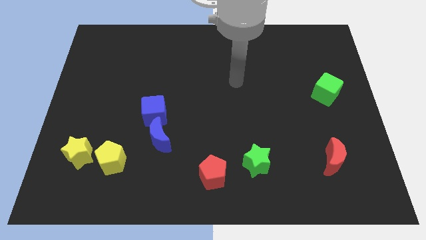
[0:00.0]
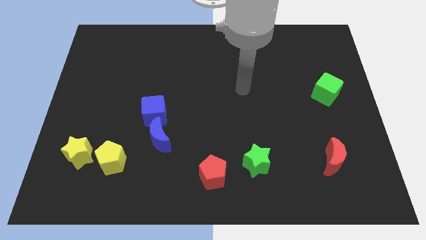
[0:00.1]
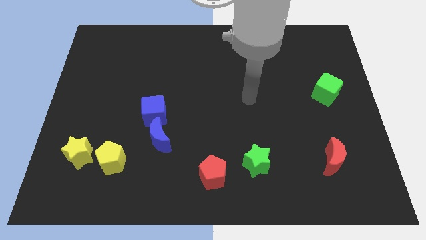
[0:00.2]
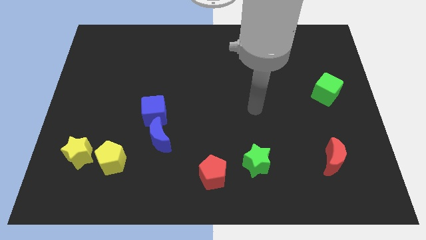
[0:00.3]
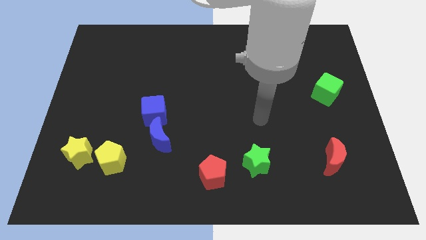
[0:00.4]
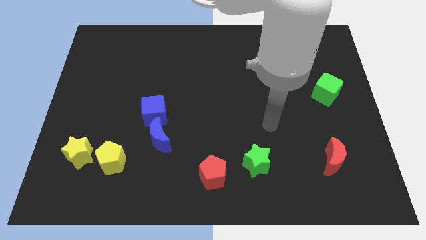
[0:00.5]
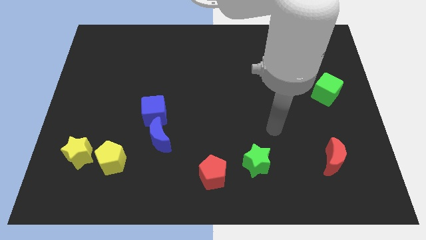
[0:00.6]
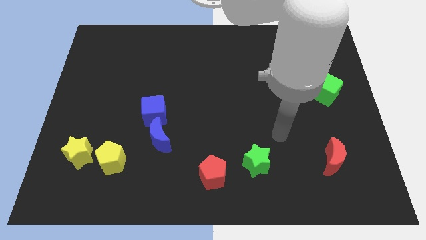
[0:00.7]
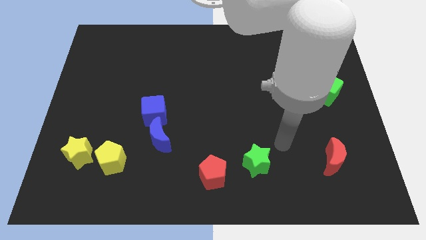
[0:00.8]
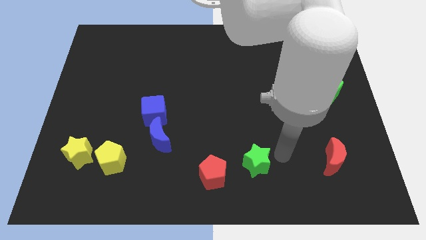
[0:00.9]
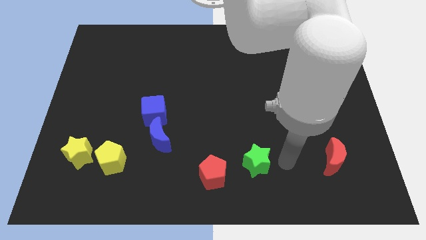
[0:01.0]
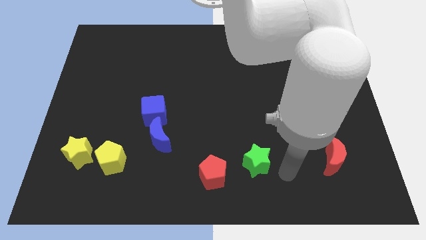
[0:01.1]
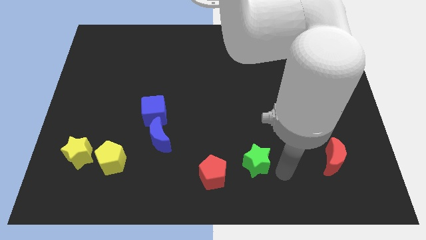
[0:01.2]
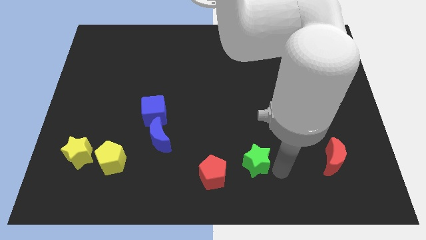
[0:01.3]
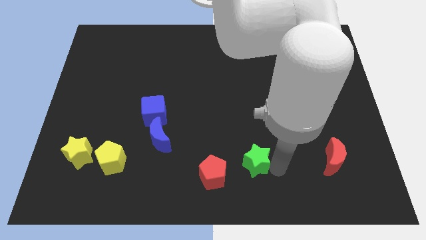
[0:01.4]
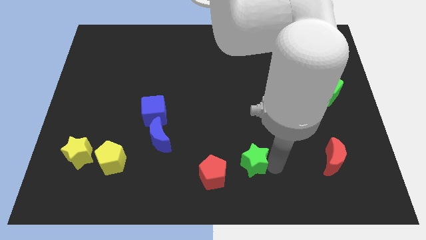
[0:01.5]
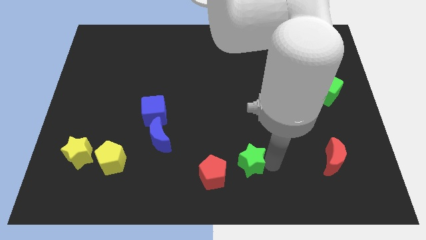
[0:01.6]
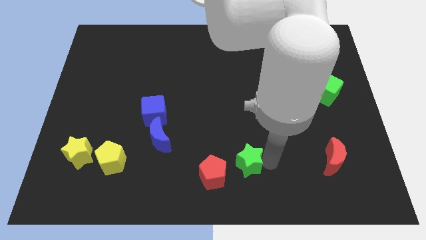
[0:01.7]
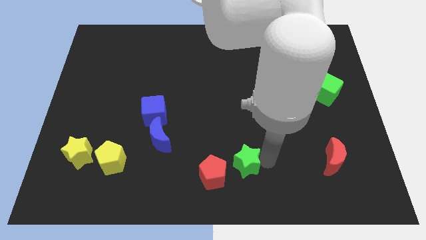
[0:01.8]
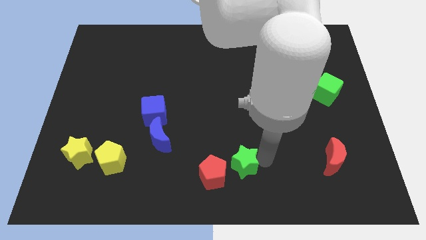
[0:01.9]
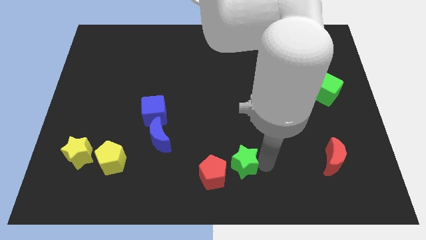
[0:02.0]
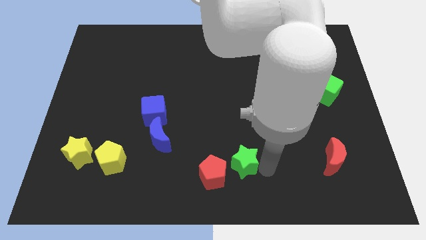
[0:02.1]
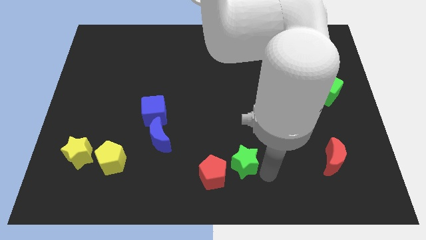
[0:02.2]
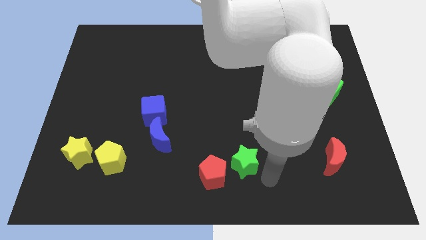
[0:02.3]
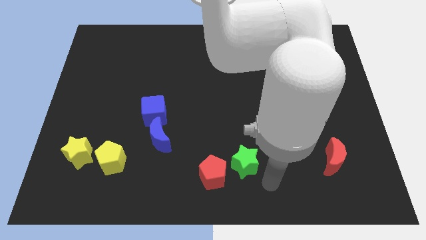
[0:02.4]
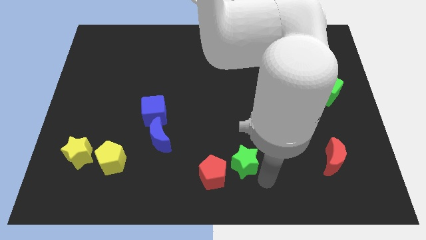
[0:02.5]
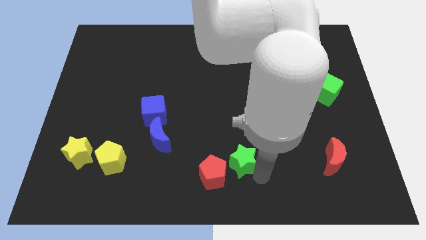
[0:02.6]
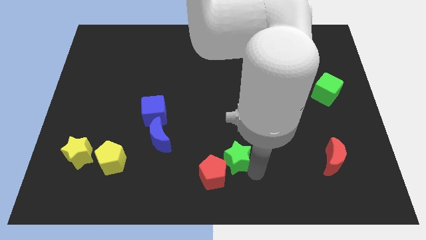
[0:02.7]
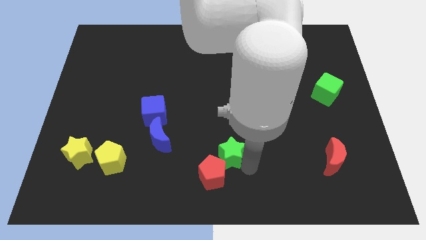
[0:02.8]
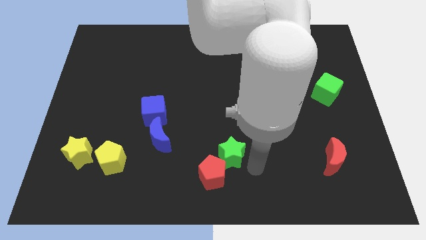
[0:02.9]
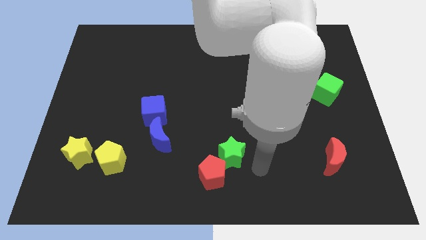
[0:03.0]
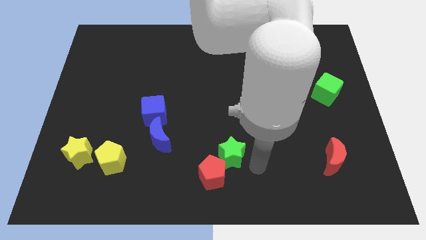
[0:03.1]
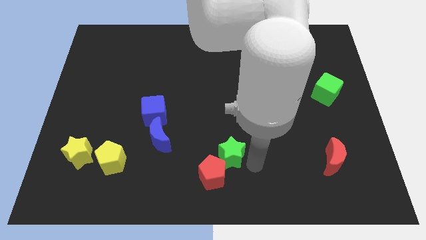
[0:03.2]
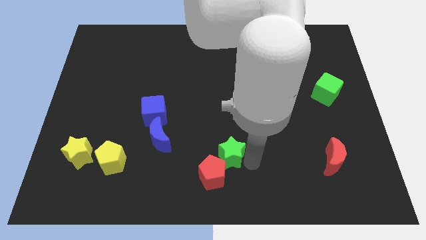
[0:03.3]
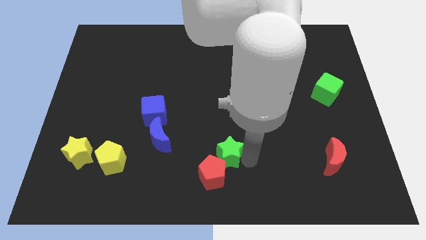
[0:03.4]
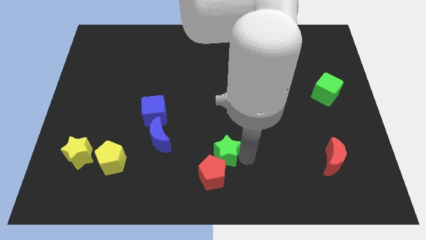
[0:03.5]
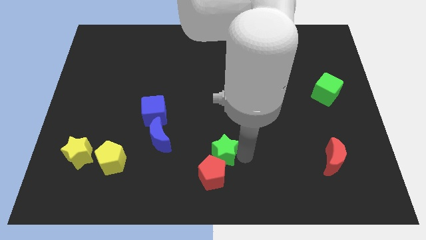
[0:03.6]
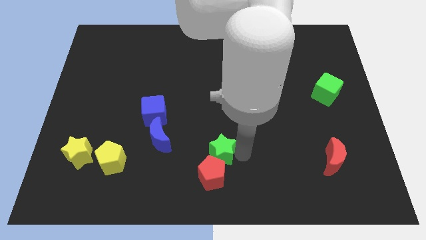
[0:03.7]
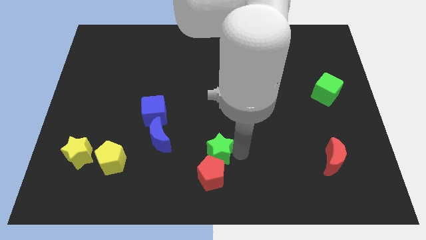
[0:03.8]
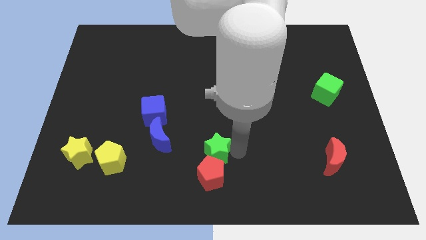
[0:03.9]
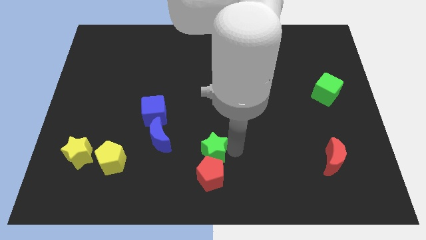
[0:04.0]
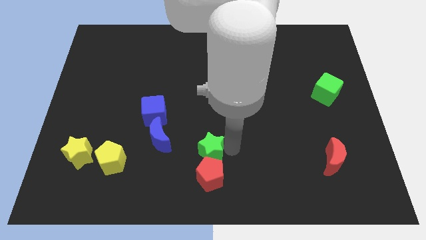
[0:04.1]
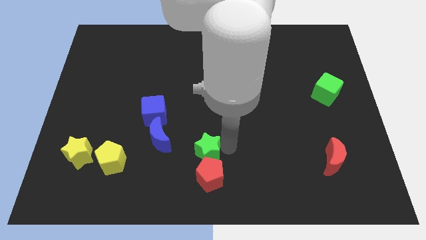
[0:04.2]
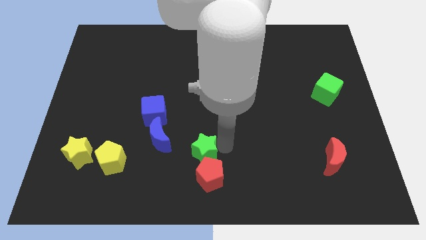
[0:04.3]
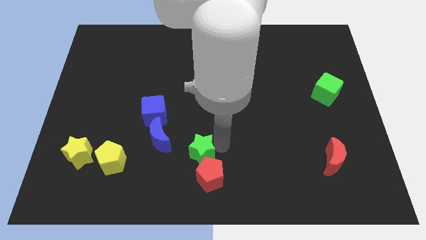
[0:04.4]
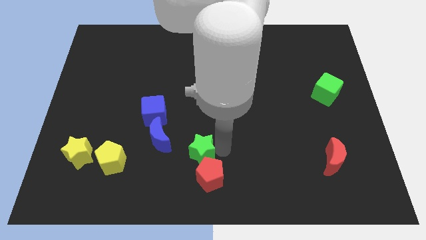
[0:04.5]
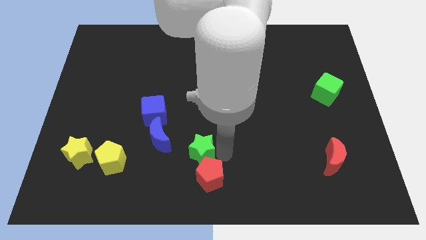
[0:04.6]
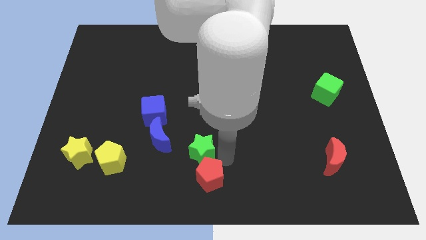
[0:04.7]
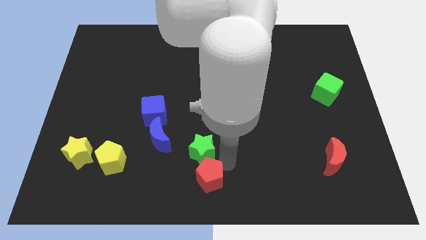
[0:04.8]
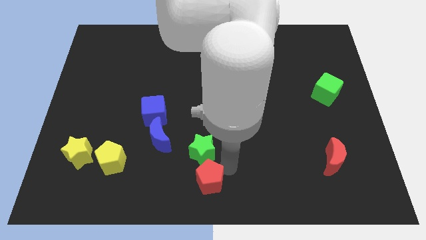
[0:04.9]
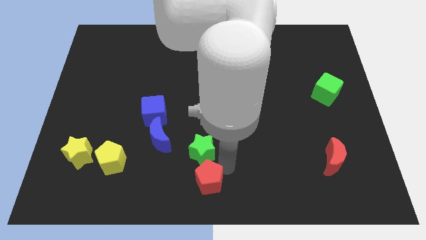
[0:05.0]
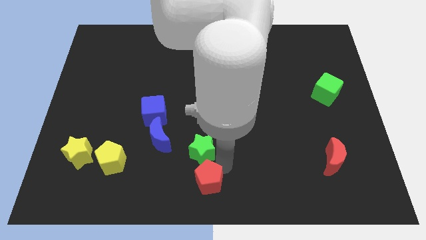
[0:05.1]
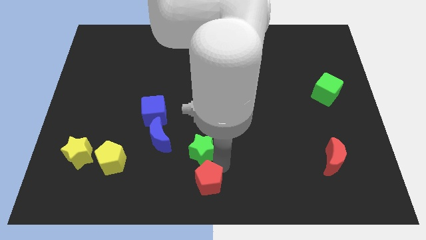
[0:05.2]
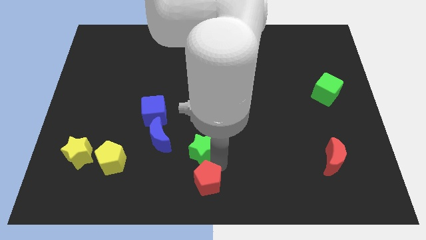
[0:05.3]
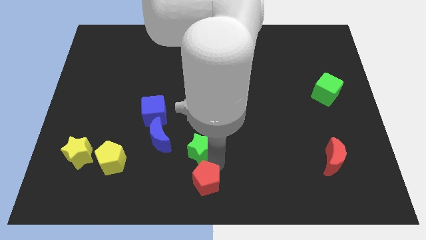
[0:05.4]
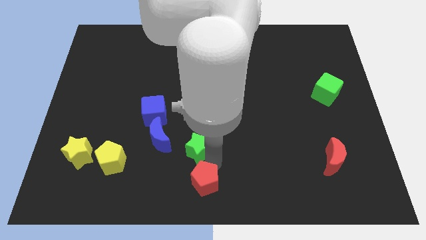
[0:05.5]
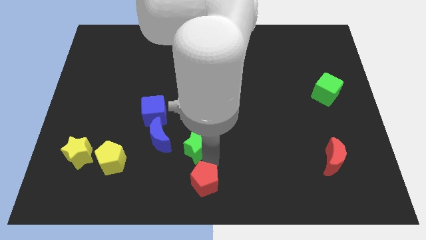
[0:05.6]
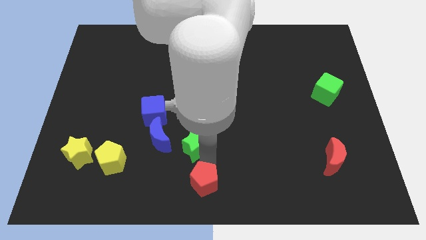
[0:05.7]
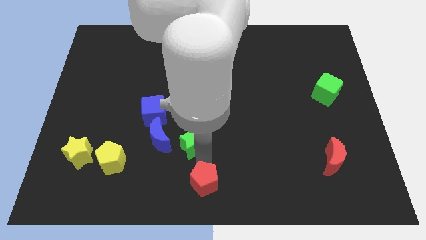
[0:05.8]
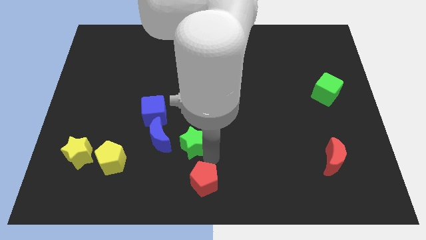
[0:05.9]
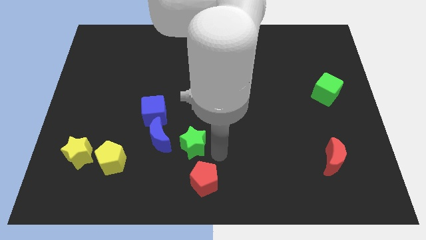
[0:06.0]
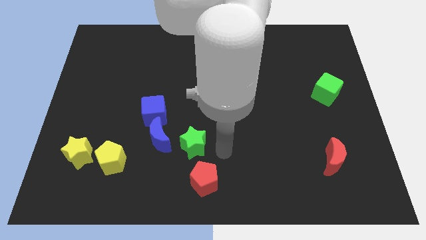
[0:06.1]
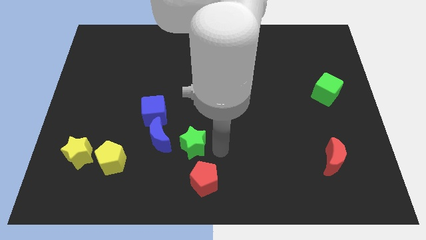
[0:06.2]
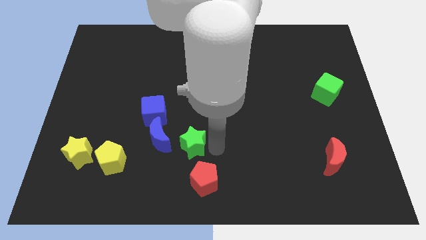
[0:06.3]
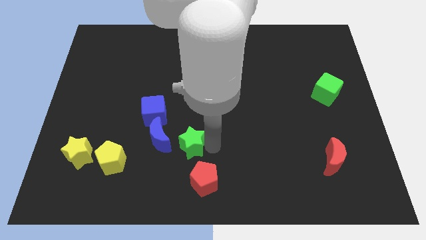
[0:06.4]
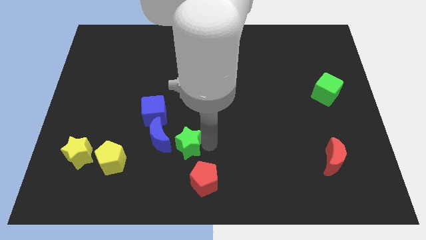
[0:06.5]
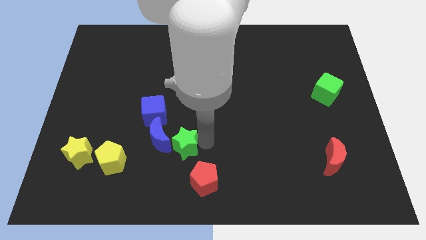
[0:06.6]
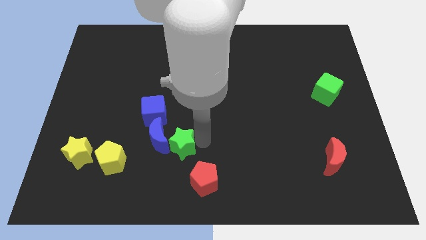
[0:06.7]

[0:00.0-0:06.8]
put the green star next to the blue moon

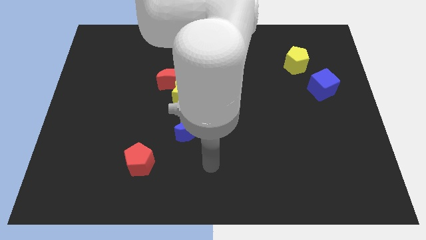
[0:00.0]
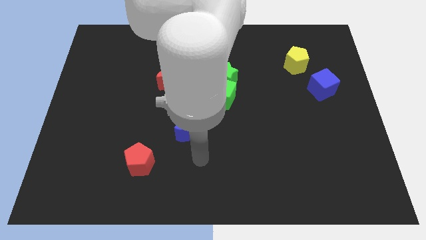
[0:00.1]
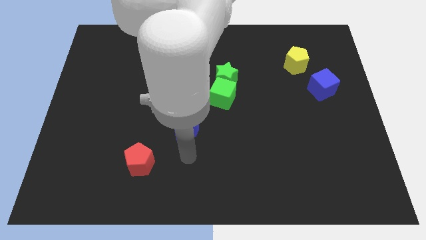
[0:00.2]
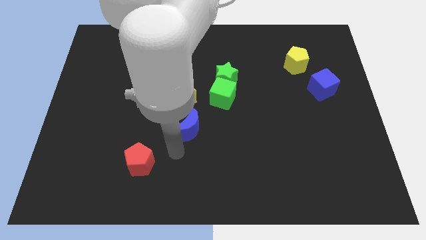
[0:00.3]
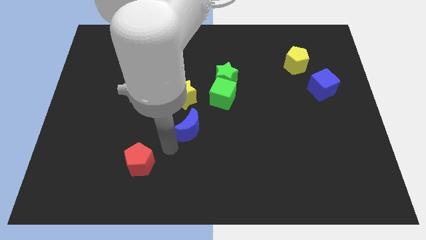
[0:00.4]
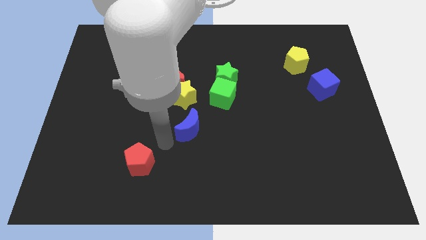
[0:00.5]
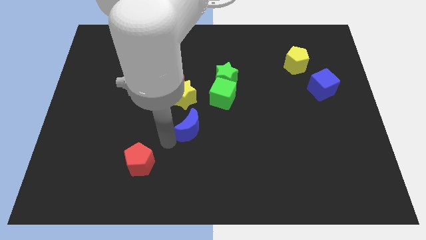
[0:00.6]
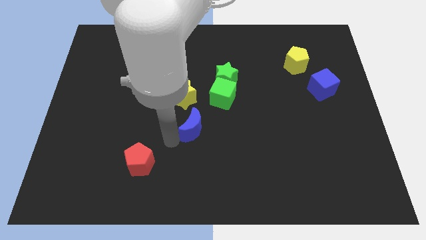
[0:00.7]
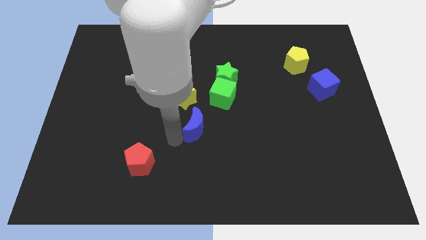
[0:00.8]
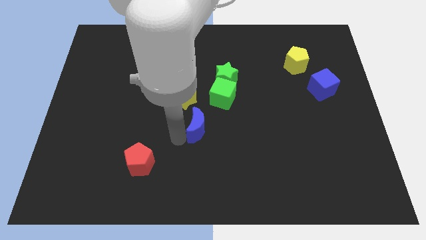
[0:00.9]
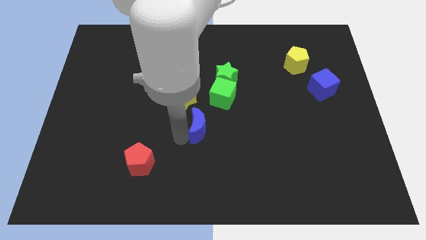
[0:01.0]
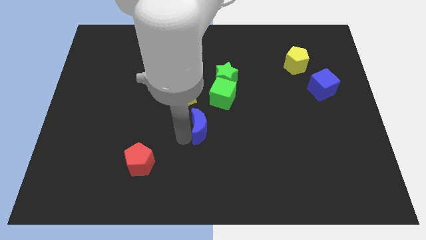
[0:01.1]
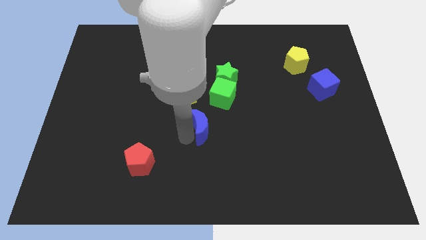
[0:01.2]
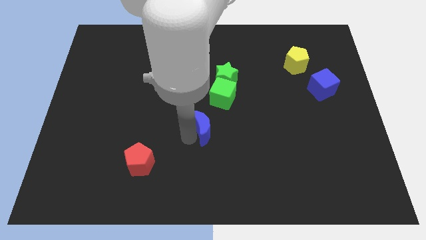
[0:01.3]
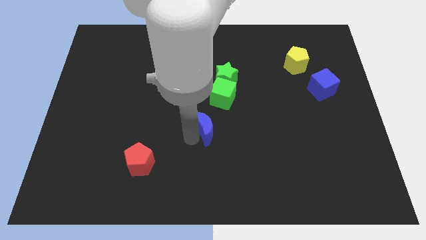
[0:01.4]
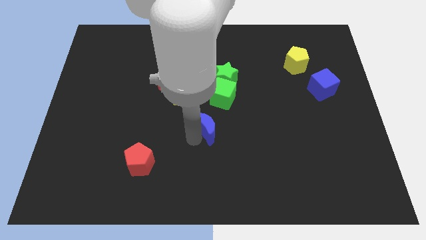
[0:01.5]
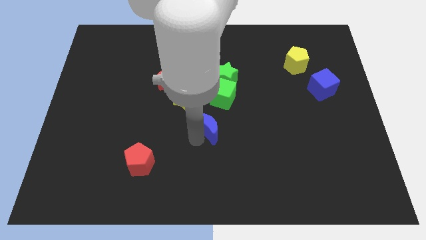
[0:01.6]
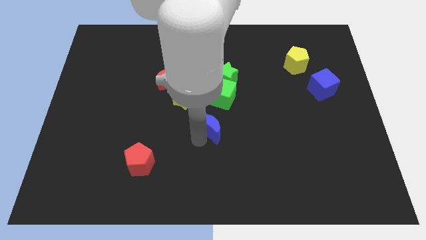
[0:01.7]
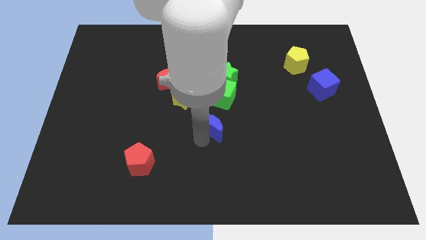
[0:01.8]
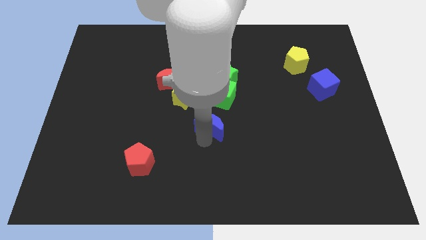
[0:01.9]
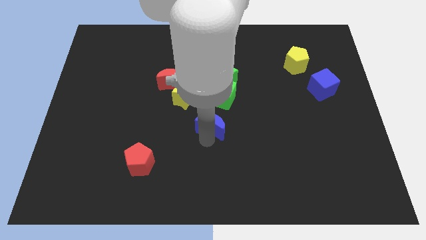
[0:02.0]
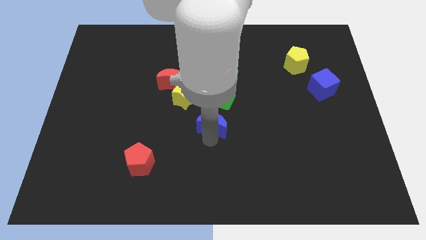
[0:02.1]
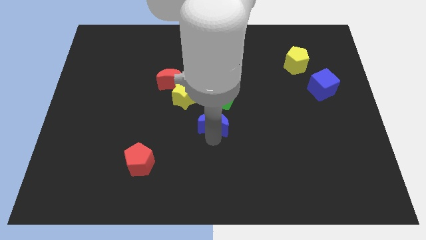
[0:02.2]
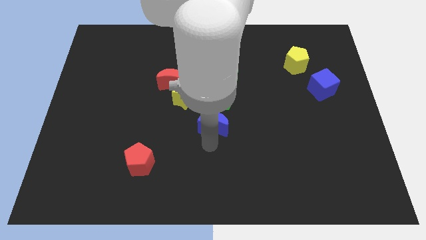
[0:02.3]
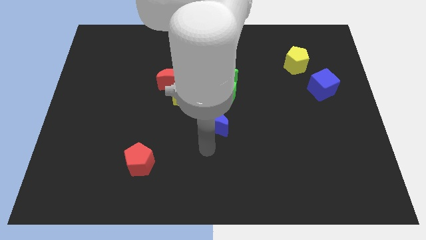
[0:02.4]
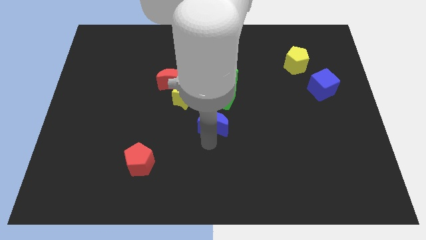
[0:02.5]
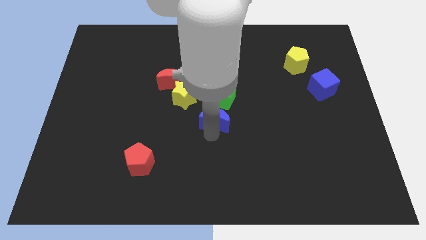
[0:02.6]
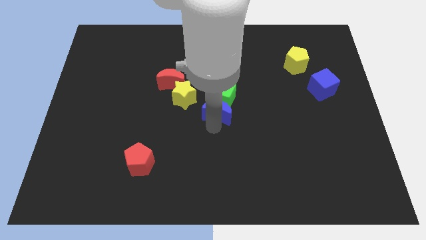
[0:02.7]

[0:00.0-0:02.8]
slide the blue moon close to the green cube
